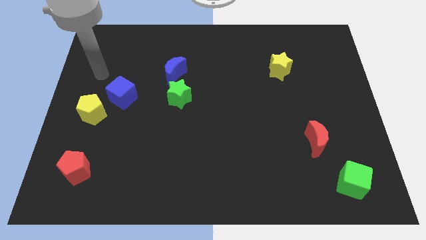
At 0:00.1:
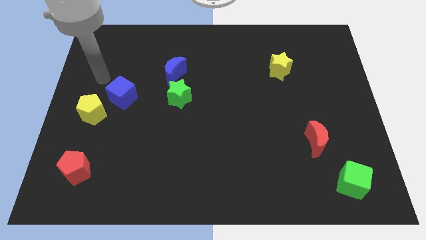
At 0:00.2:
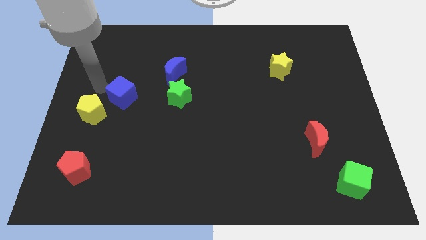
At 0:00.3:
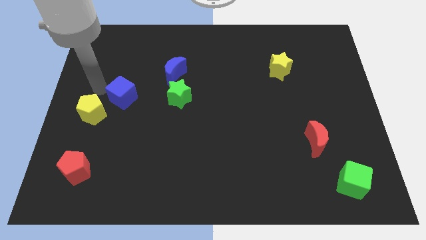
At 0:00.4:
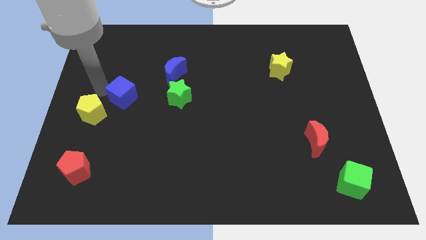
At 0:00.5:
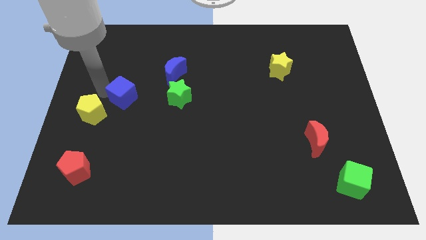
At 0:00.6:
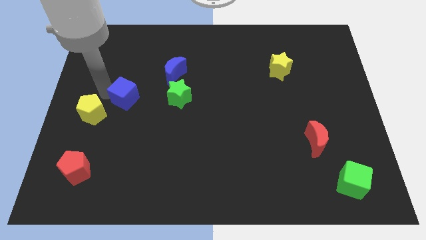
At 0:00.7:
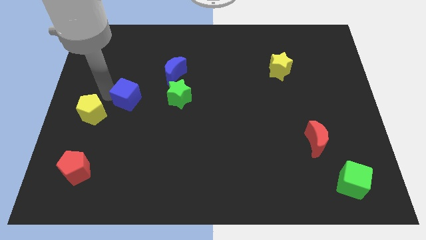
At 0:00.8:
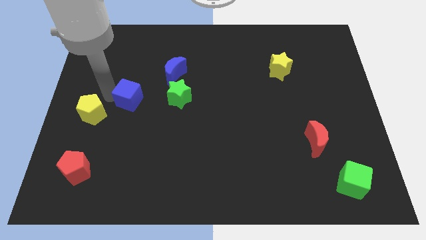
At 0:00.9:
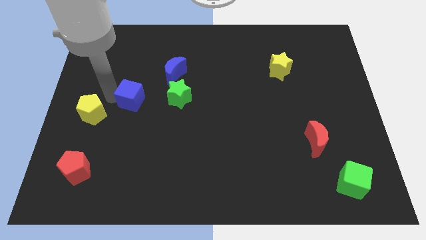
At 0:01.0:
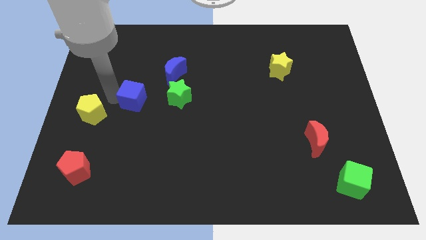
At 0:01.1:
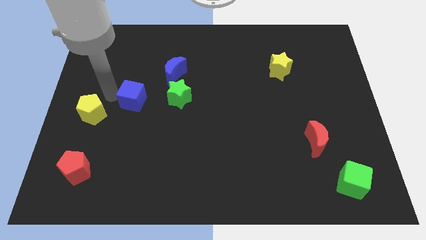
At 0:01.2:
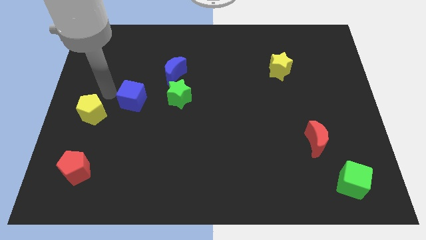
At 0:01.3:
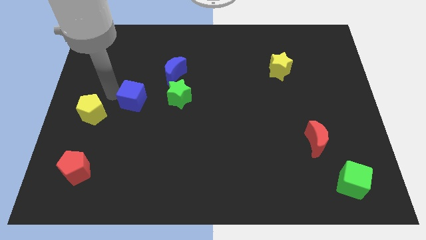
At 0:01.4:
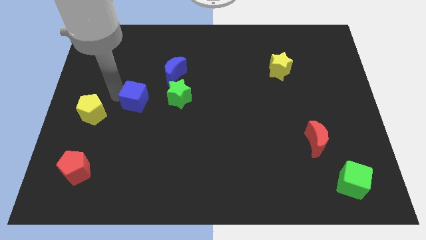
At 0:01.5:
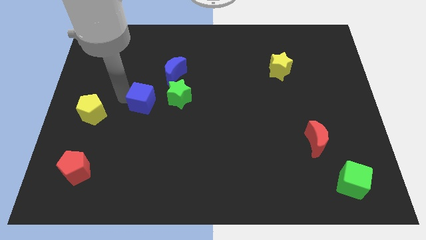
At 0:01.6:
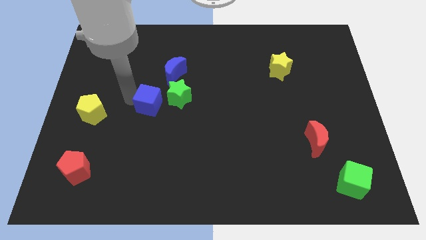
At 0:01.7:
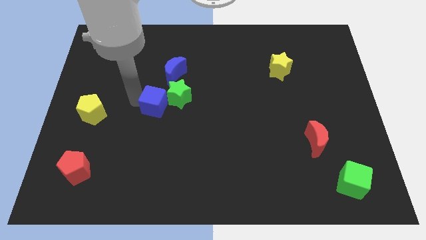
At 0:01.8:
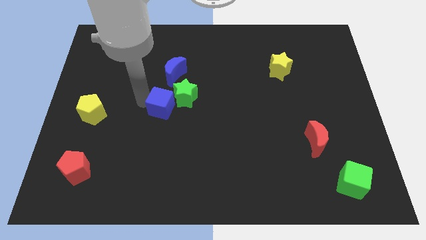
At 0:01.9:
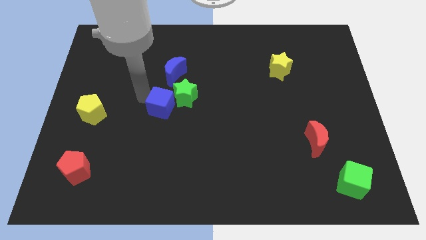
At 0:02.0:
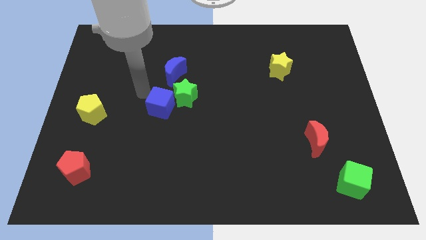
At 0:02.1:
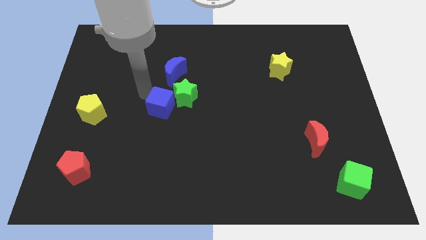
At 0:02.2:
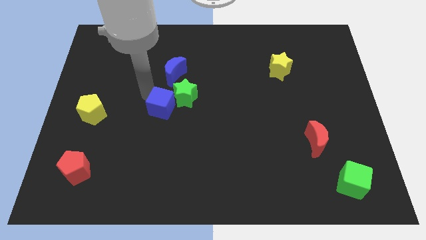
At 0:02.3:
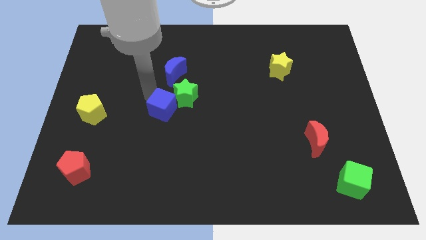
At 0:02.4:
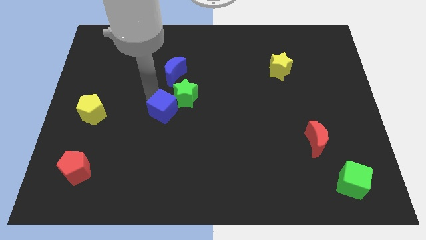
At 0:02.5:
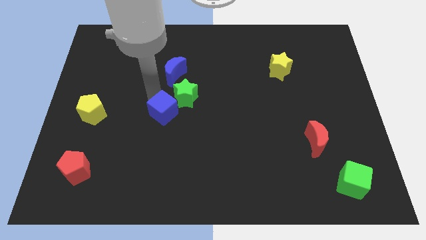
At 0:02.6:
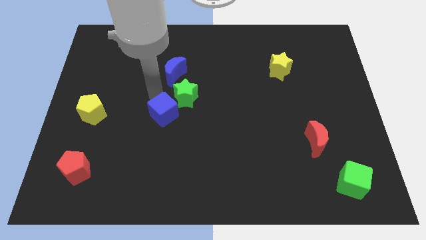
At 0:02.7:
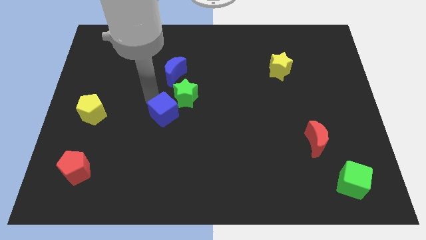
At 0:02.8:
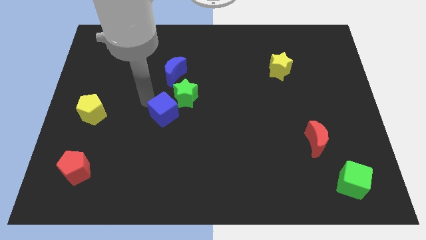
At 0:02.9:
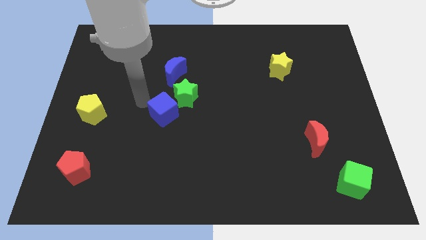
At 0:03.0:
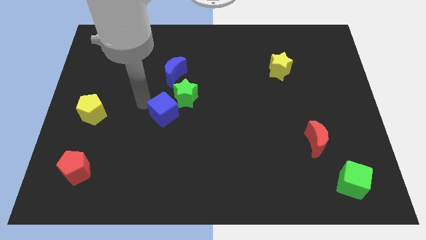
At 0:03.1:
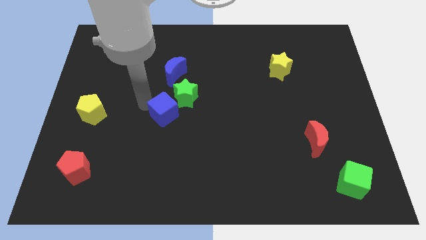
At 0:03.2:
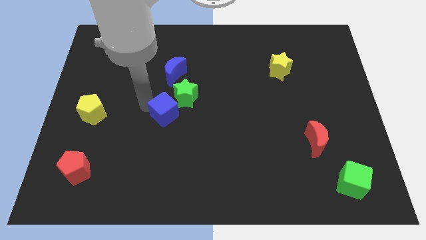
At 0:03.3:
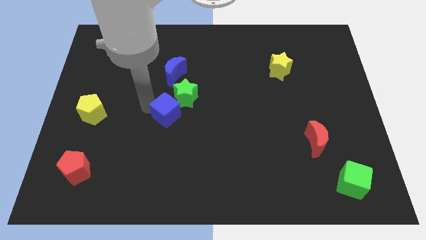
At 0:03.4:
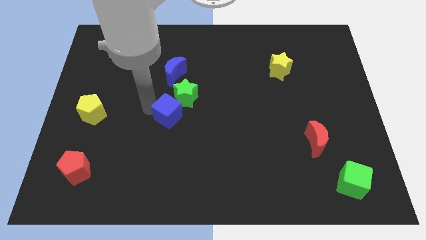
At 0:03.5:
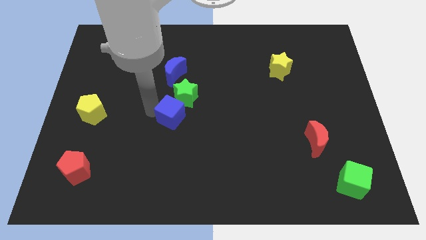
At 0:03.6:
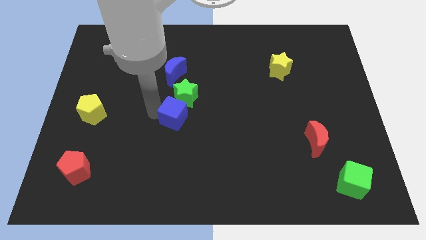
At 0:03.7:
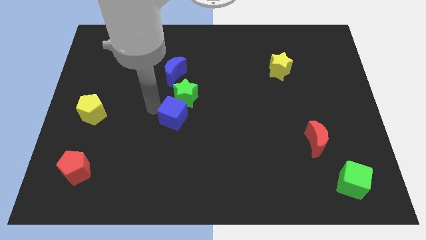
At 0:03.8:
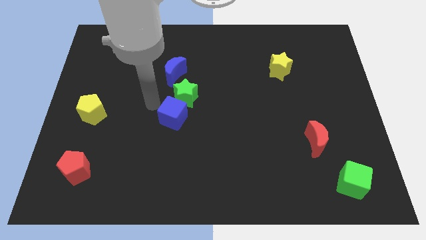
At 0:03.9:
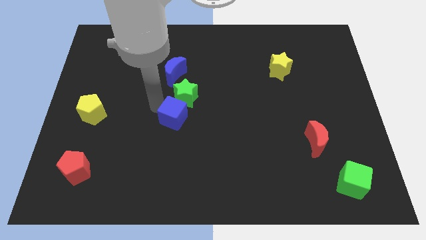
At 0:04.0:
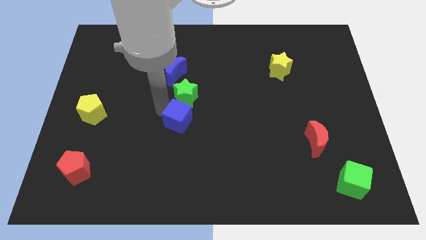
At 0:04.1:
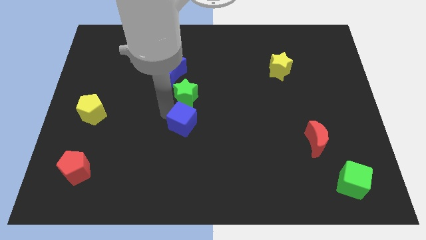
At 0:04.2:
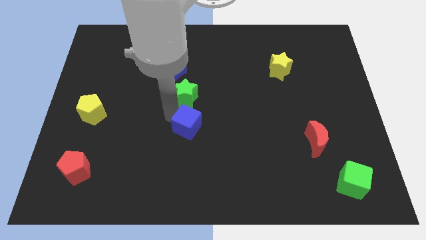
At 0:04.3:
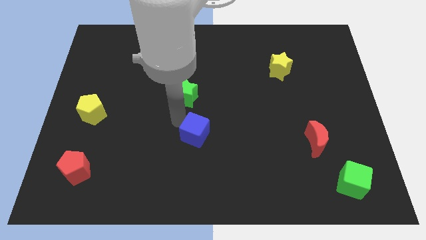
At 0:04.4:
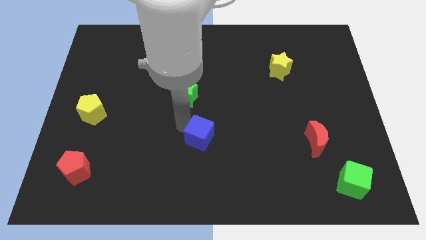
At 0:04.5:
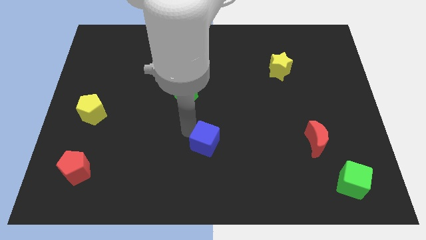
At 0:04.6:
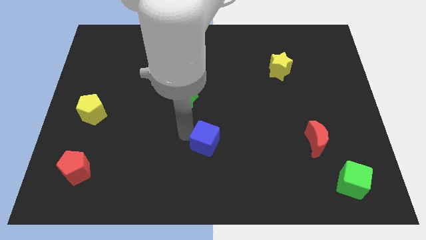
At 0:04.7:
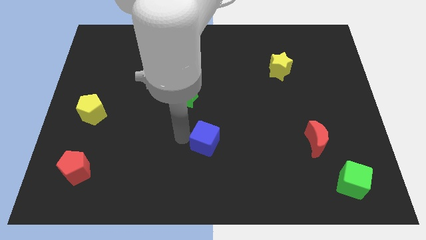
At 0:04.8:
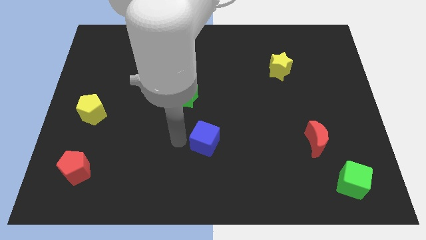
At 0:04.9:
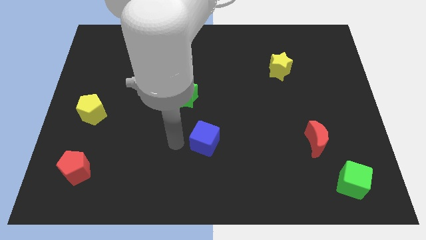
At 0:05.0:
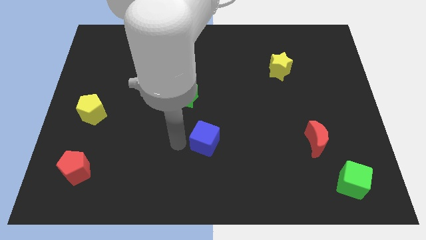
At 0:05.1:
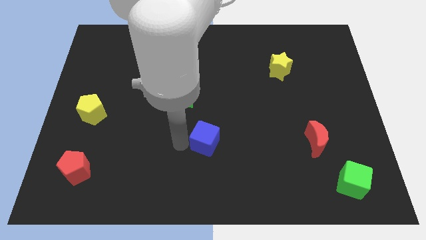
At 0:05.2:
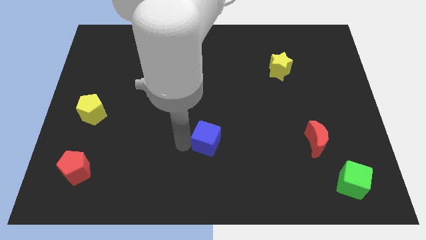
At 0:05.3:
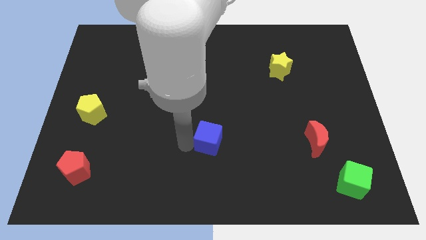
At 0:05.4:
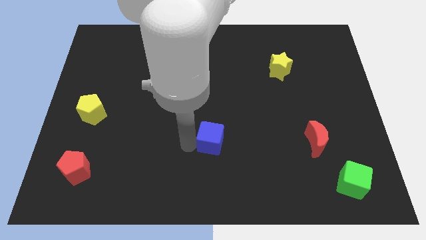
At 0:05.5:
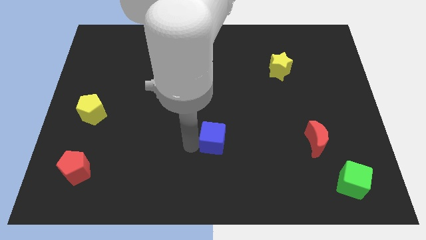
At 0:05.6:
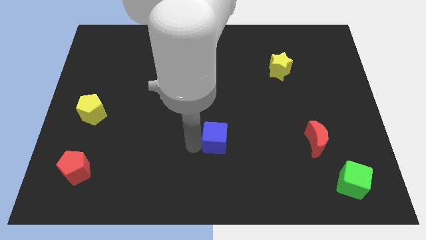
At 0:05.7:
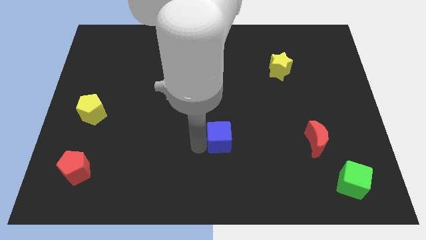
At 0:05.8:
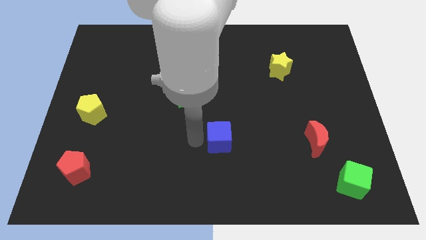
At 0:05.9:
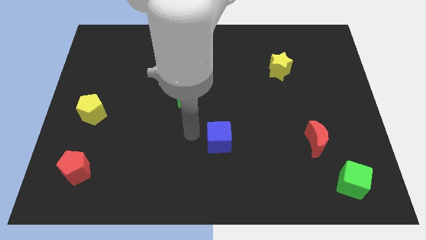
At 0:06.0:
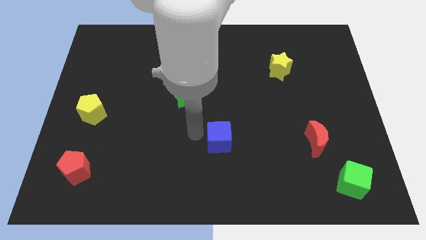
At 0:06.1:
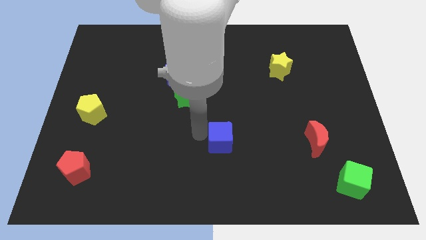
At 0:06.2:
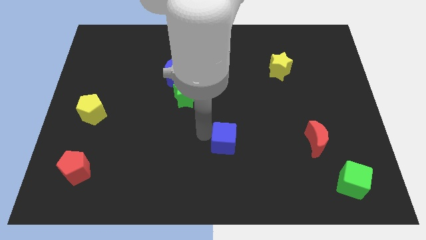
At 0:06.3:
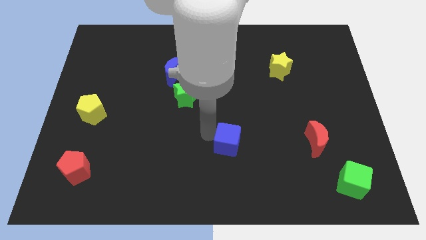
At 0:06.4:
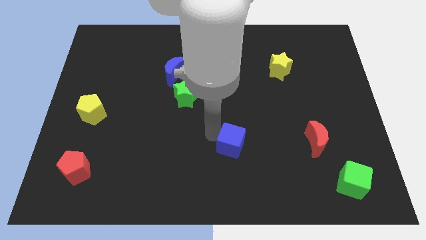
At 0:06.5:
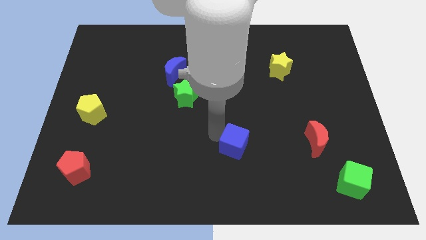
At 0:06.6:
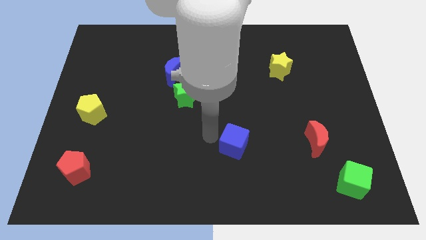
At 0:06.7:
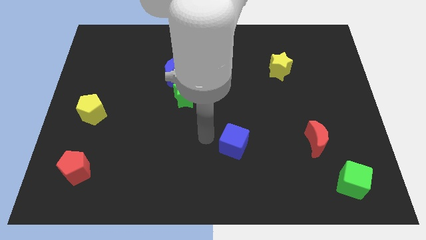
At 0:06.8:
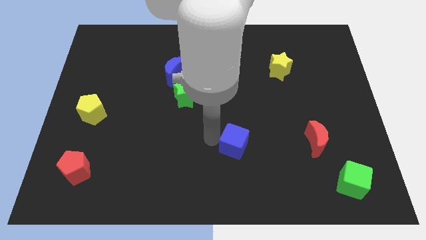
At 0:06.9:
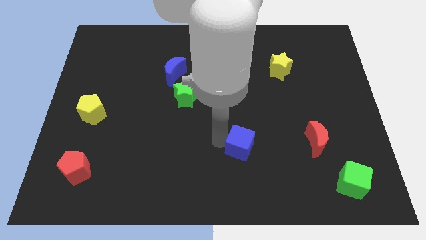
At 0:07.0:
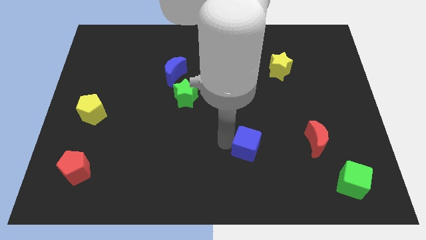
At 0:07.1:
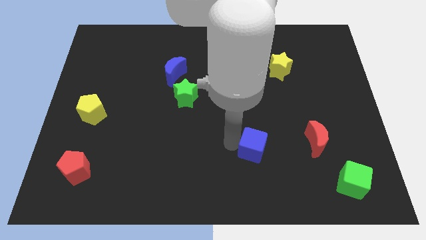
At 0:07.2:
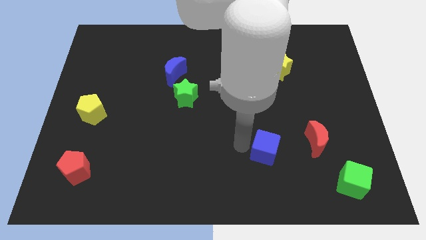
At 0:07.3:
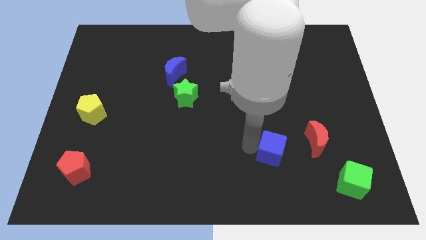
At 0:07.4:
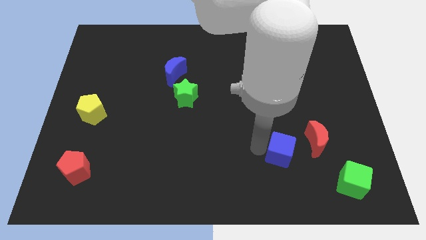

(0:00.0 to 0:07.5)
move the blue cube to the bottom left of the red moon

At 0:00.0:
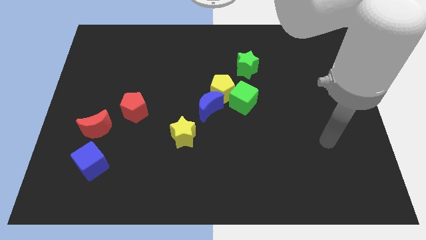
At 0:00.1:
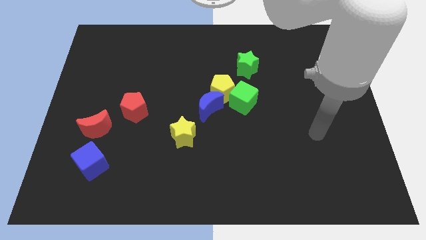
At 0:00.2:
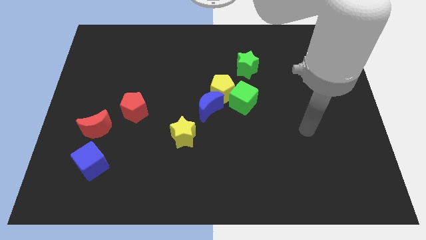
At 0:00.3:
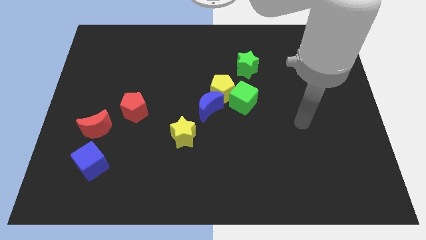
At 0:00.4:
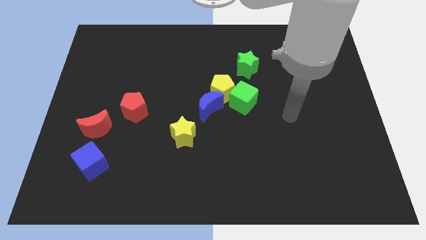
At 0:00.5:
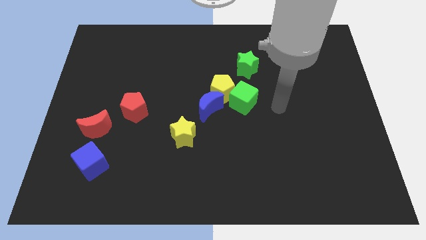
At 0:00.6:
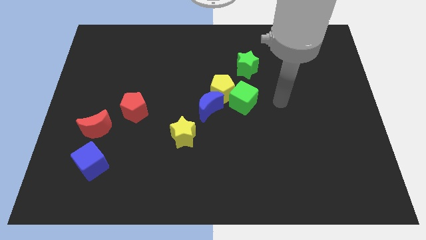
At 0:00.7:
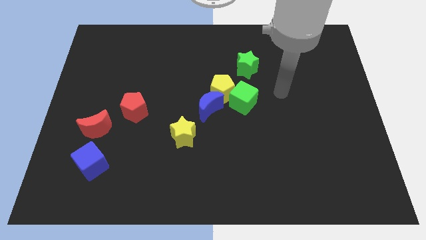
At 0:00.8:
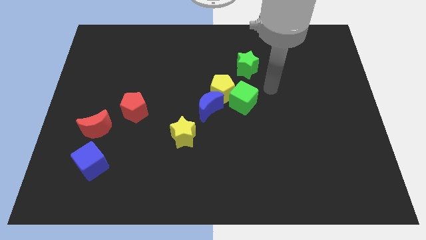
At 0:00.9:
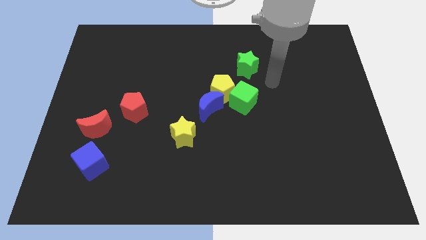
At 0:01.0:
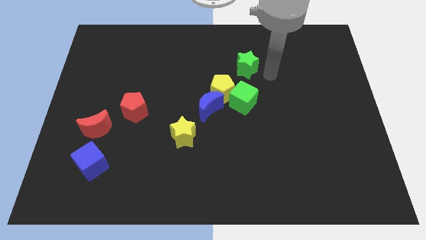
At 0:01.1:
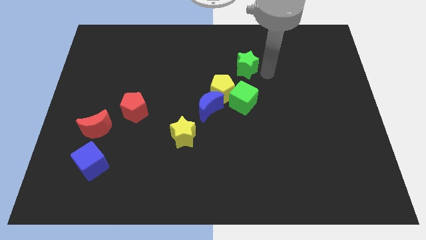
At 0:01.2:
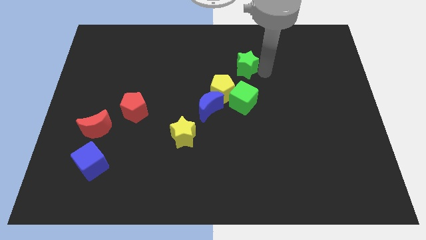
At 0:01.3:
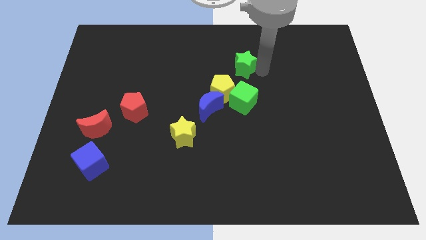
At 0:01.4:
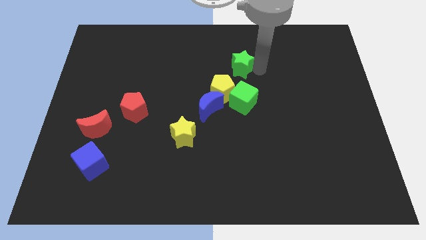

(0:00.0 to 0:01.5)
move the green star to the top side of the yellow pentagon
